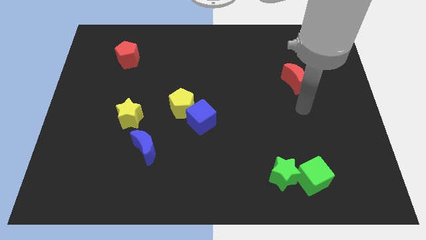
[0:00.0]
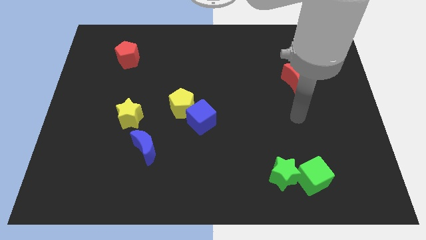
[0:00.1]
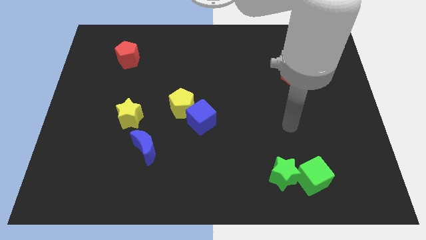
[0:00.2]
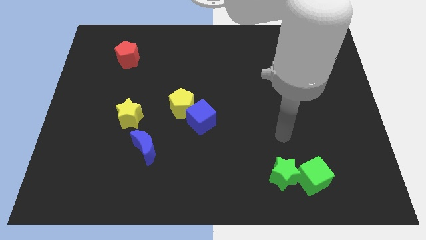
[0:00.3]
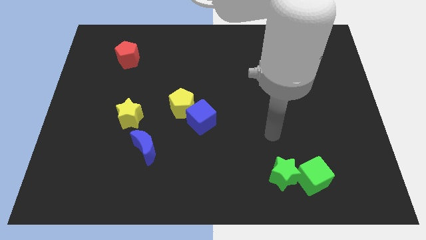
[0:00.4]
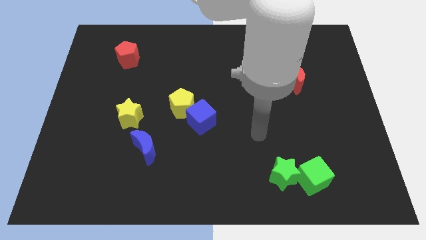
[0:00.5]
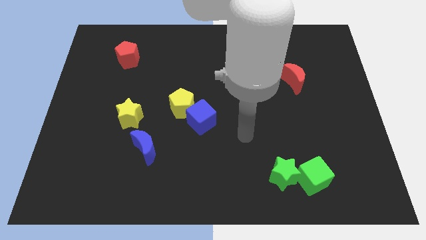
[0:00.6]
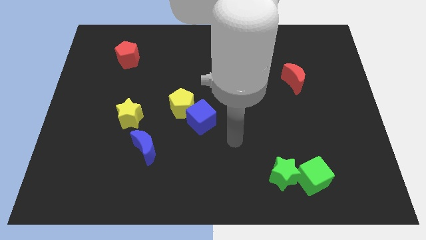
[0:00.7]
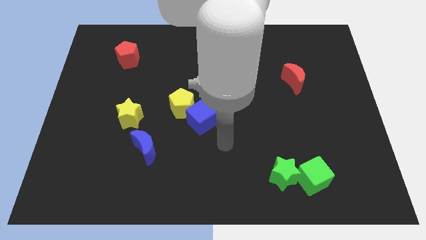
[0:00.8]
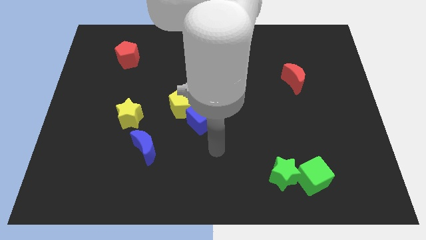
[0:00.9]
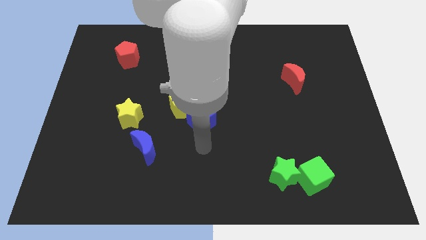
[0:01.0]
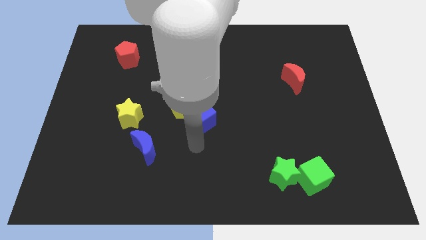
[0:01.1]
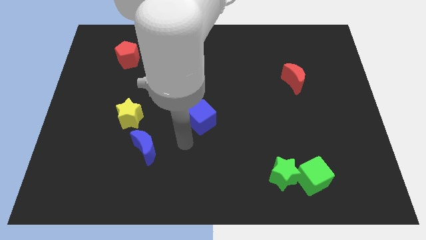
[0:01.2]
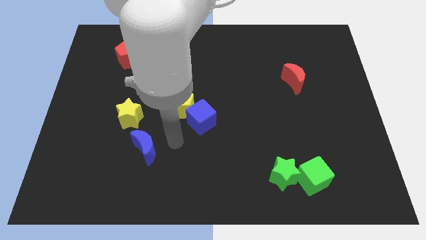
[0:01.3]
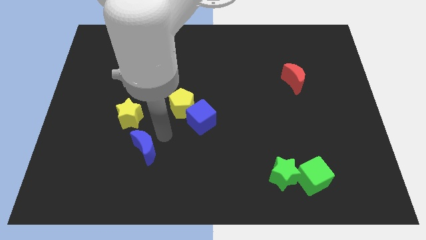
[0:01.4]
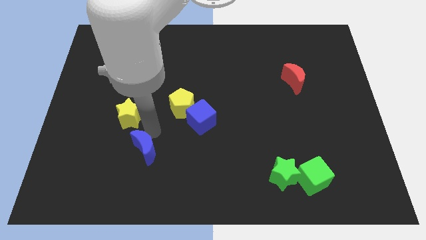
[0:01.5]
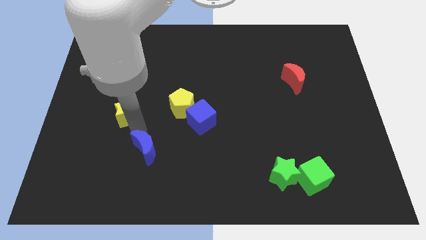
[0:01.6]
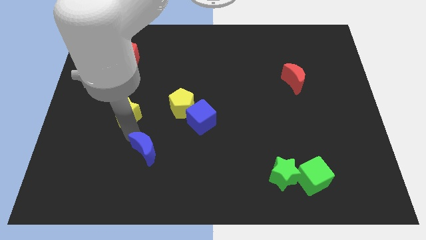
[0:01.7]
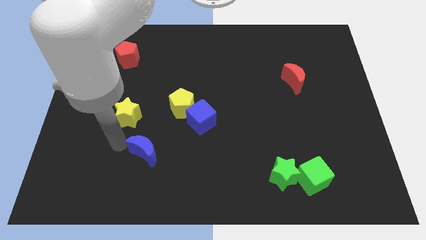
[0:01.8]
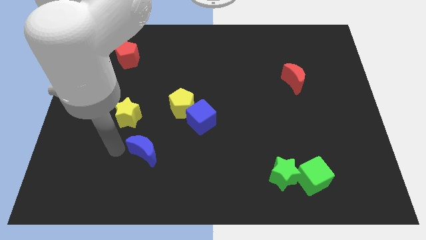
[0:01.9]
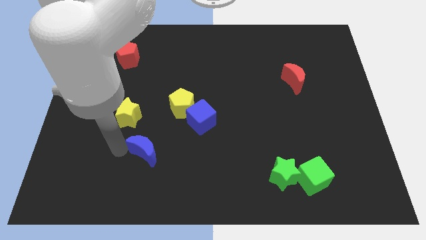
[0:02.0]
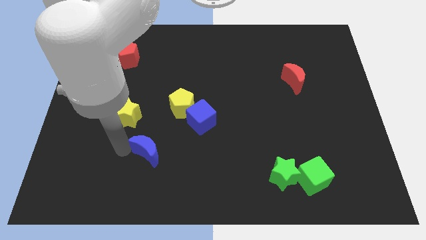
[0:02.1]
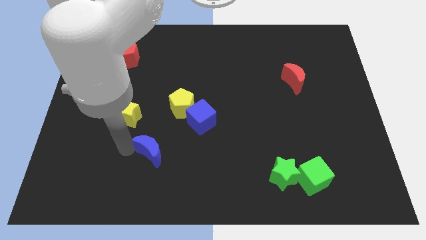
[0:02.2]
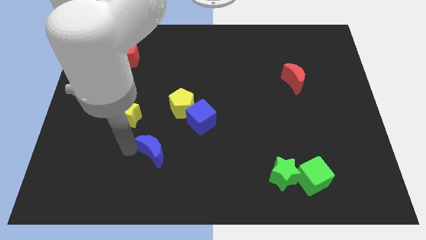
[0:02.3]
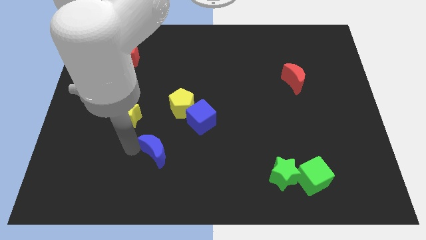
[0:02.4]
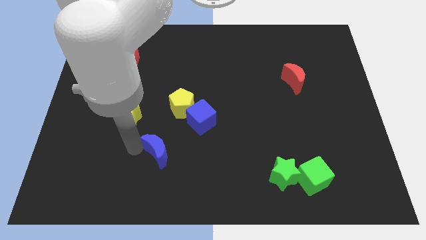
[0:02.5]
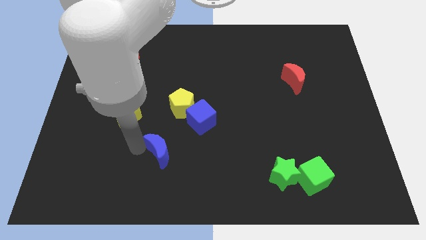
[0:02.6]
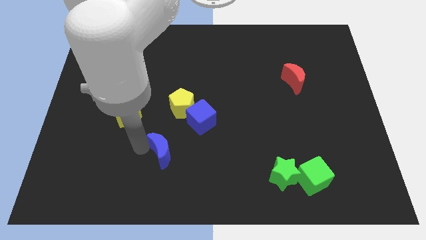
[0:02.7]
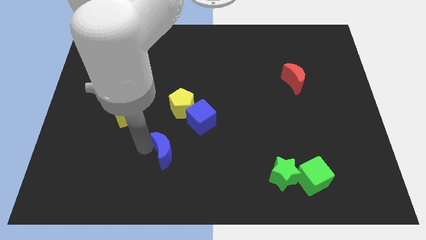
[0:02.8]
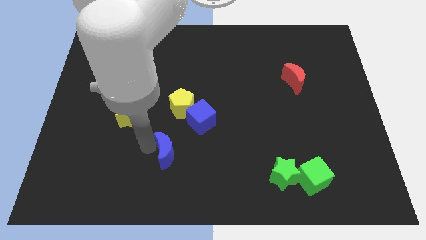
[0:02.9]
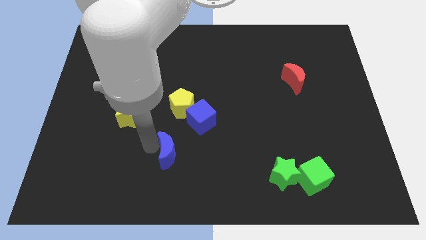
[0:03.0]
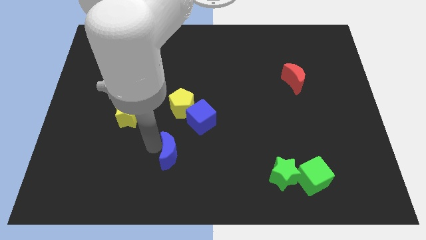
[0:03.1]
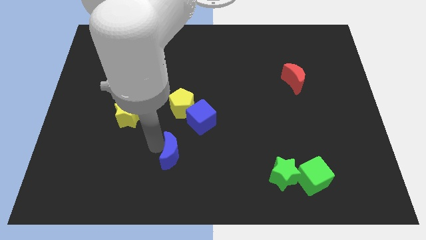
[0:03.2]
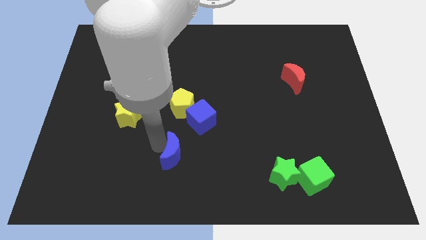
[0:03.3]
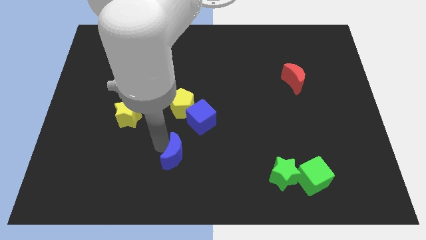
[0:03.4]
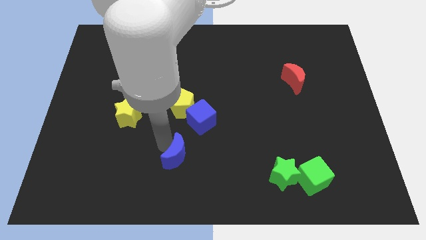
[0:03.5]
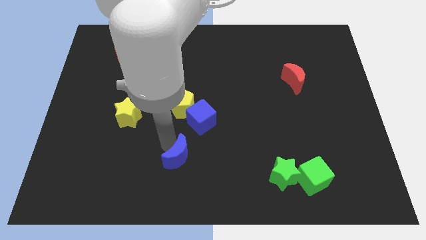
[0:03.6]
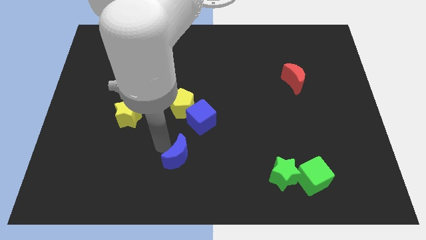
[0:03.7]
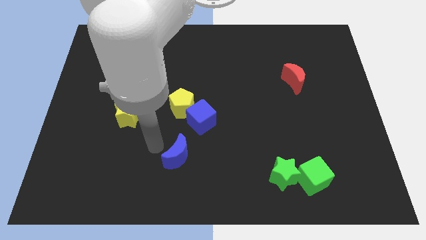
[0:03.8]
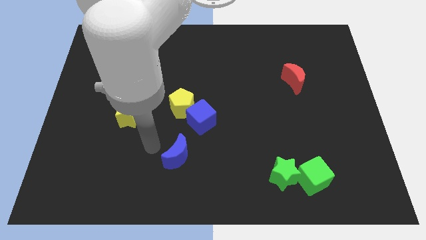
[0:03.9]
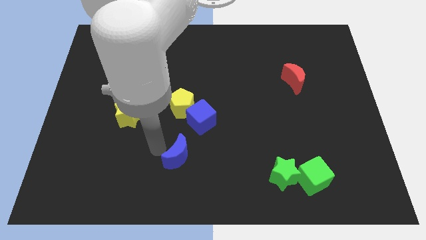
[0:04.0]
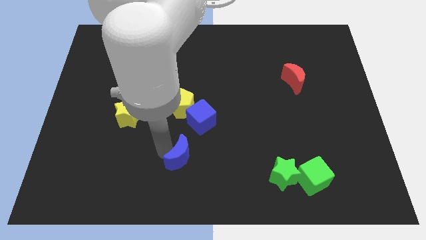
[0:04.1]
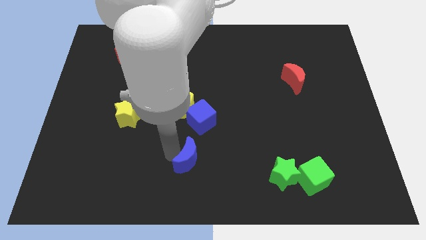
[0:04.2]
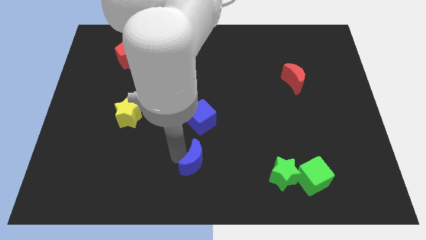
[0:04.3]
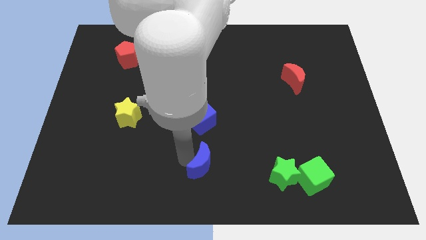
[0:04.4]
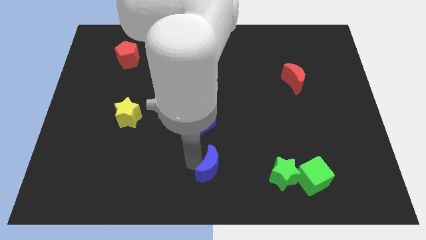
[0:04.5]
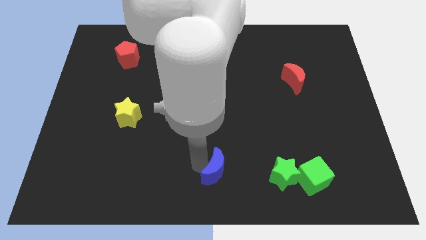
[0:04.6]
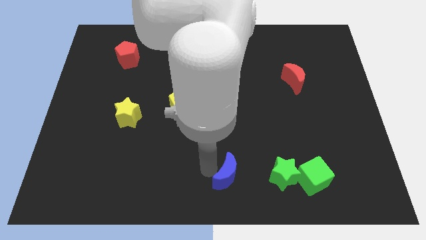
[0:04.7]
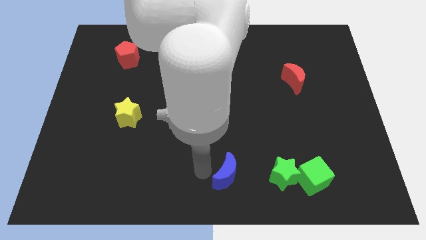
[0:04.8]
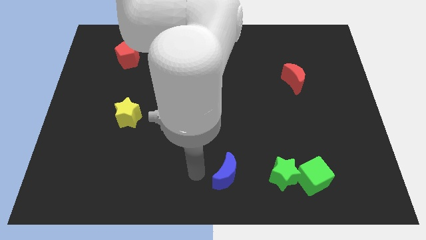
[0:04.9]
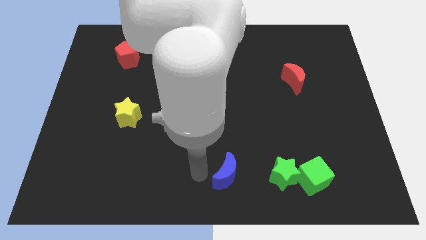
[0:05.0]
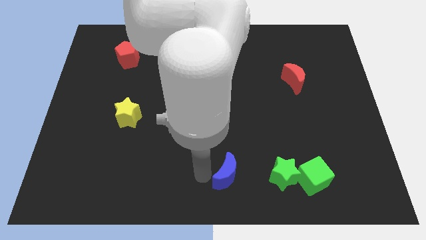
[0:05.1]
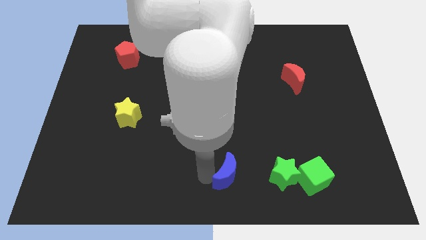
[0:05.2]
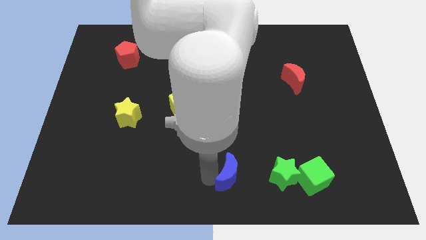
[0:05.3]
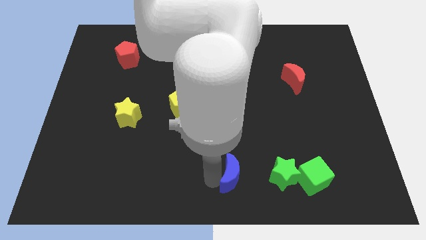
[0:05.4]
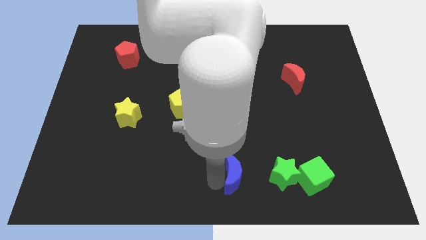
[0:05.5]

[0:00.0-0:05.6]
move the blue moon just left of the green cube
